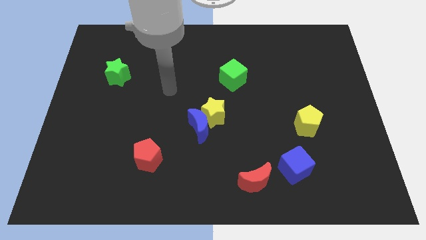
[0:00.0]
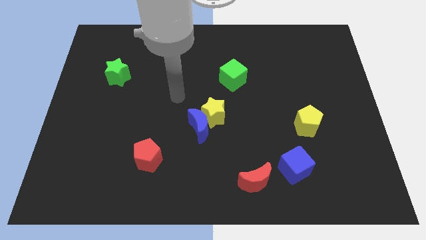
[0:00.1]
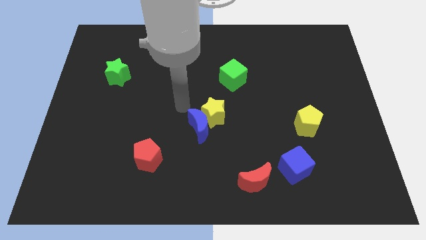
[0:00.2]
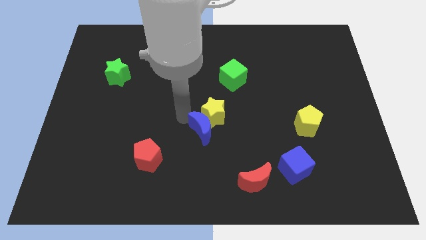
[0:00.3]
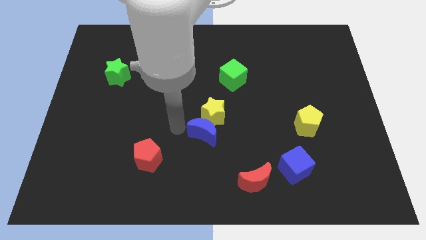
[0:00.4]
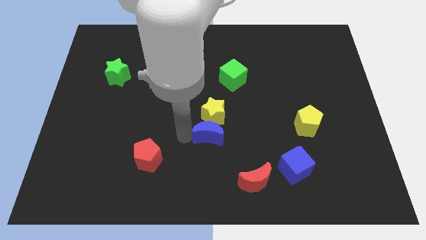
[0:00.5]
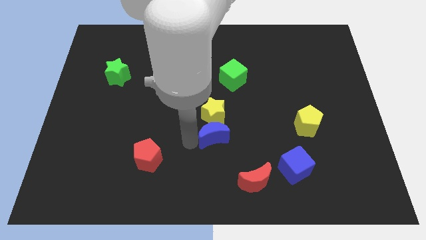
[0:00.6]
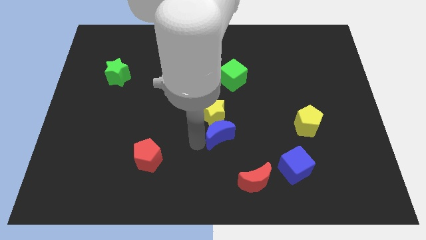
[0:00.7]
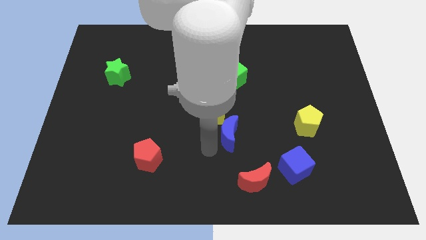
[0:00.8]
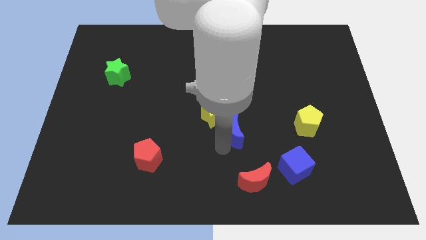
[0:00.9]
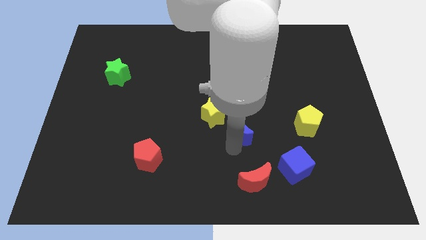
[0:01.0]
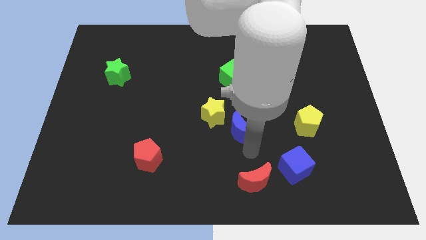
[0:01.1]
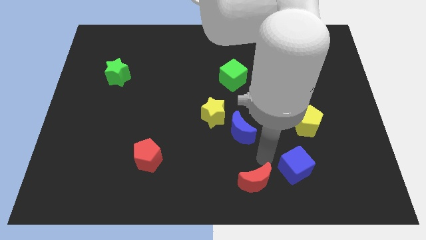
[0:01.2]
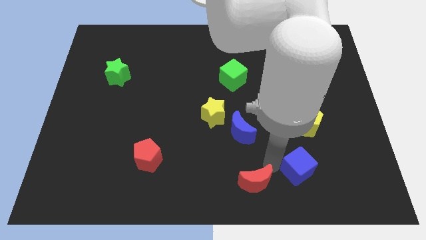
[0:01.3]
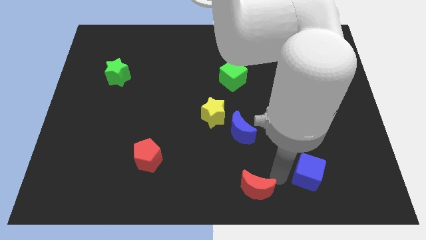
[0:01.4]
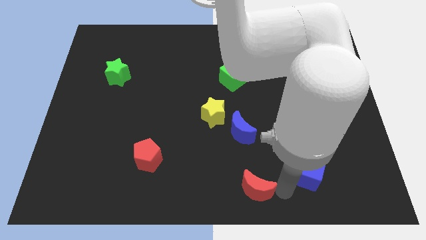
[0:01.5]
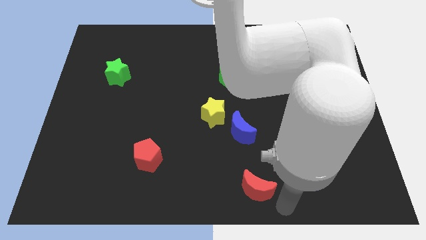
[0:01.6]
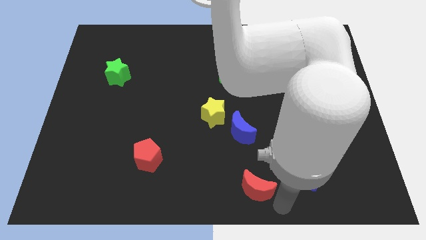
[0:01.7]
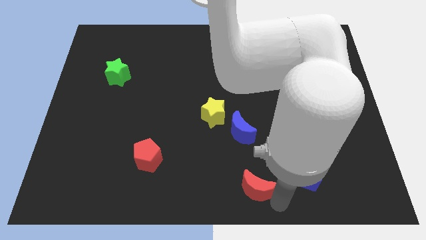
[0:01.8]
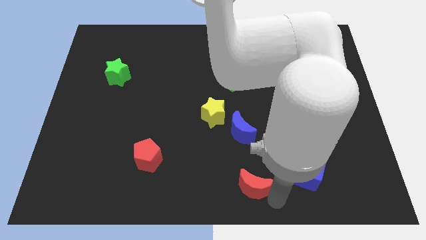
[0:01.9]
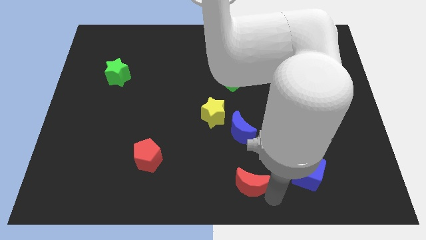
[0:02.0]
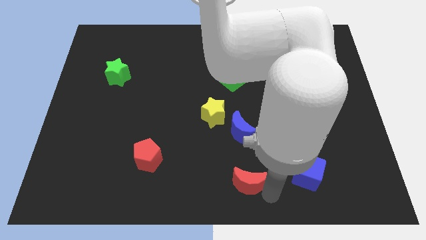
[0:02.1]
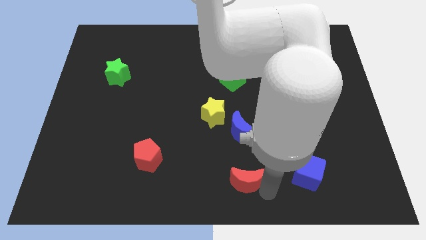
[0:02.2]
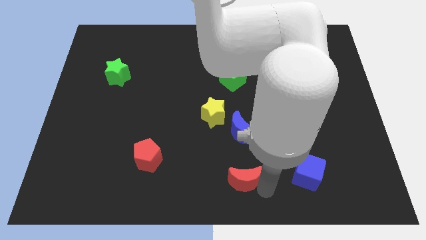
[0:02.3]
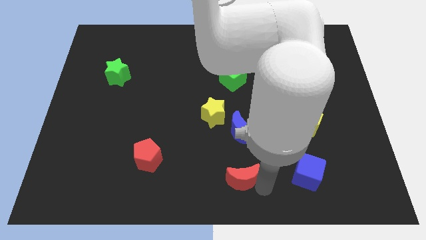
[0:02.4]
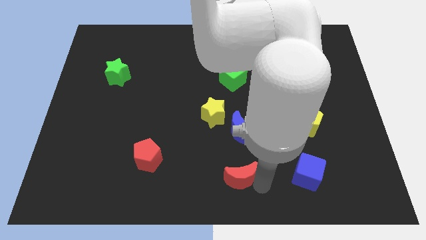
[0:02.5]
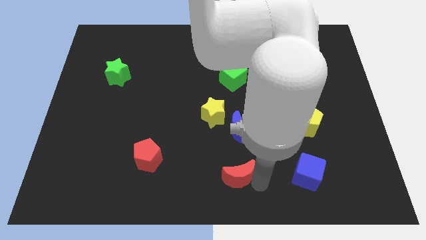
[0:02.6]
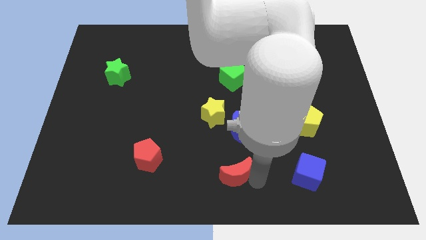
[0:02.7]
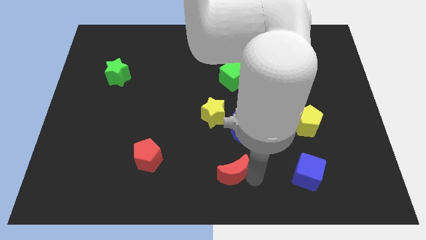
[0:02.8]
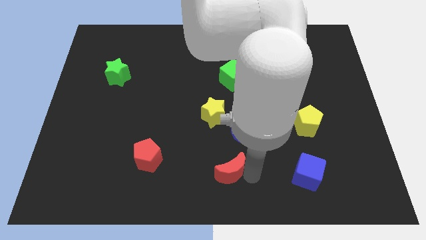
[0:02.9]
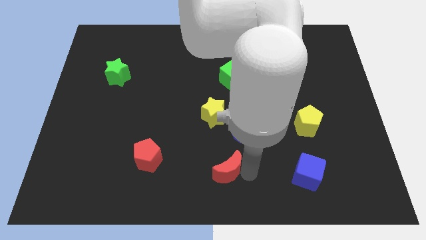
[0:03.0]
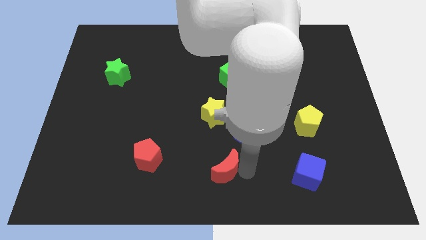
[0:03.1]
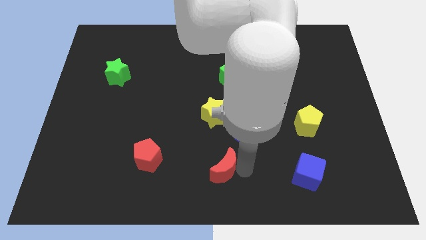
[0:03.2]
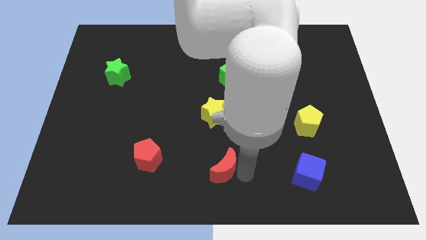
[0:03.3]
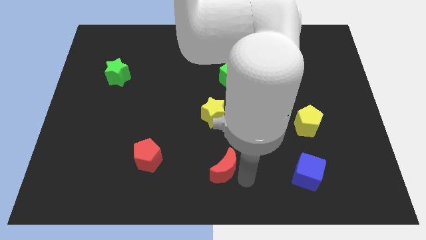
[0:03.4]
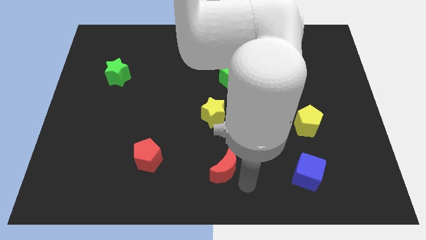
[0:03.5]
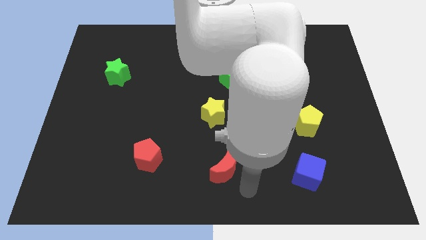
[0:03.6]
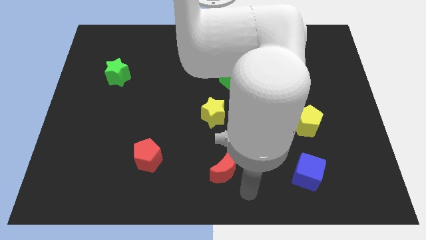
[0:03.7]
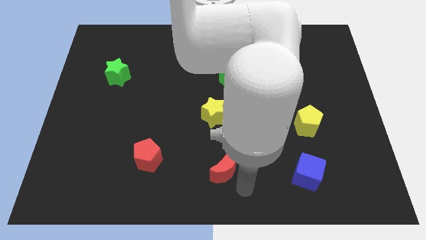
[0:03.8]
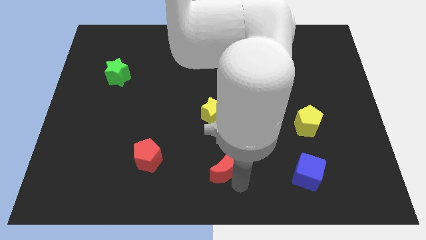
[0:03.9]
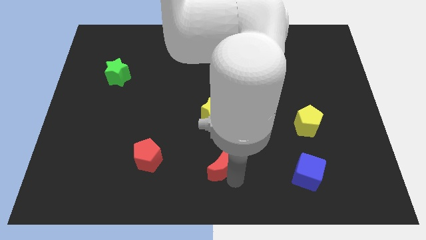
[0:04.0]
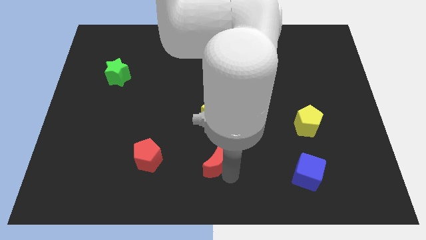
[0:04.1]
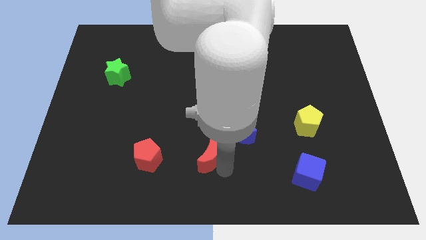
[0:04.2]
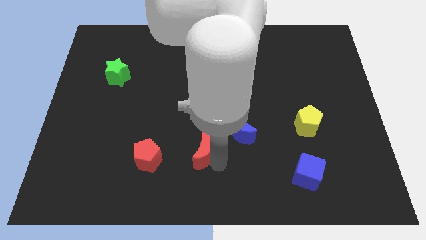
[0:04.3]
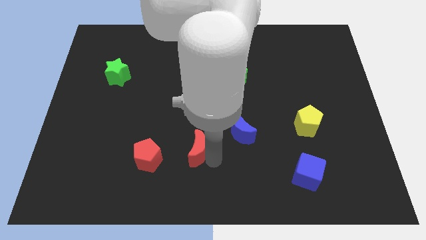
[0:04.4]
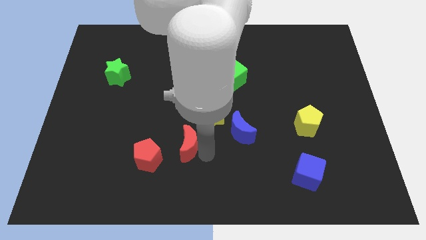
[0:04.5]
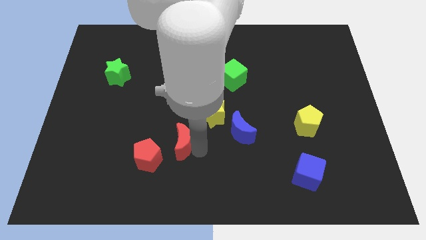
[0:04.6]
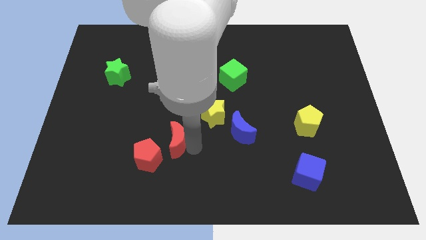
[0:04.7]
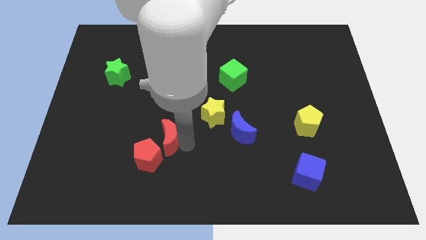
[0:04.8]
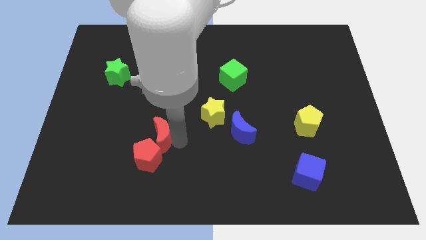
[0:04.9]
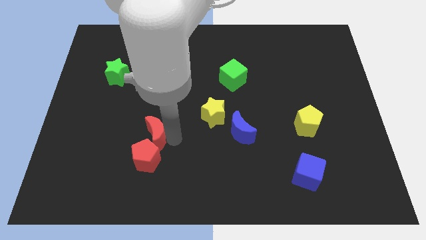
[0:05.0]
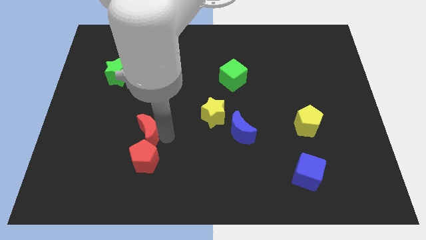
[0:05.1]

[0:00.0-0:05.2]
slide the red moon diagonally up and to the left of the red pentagon

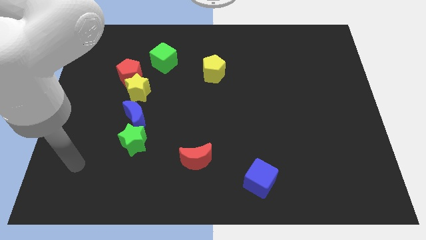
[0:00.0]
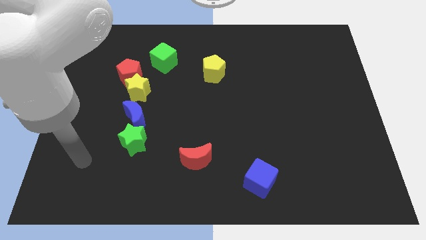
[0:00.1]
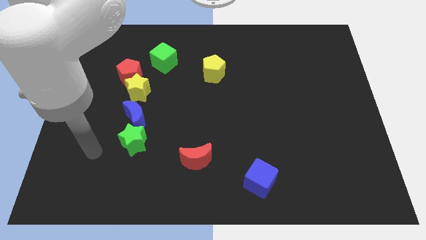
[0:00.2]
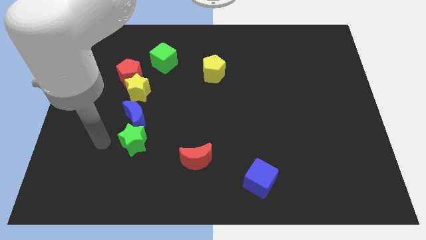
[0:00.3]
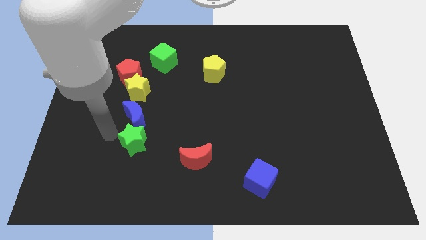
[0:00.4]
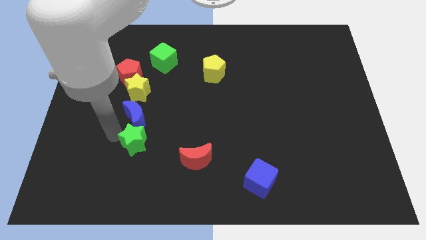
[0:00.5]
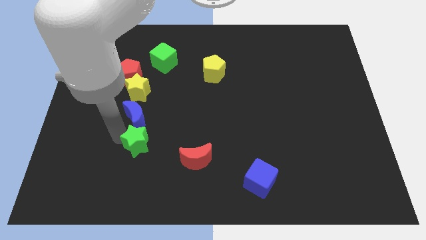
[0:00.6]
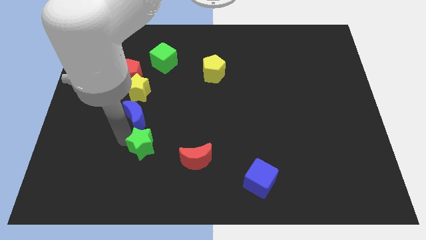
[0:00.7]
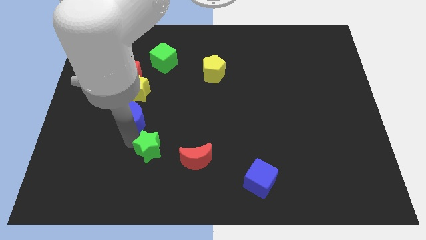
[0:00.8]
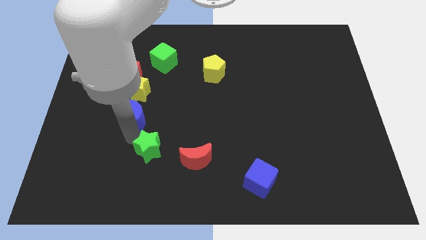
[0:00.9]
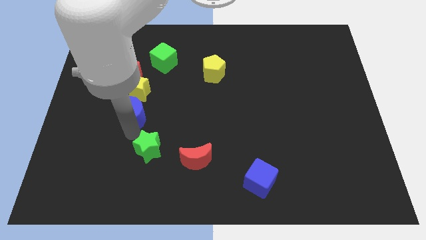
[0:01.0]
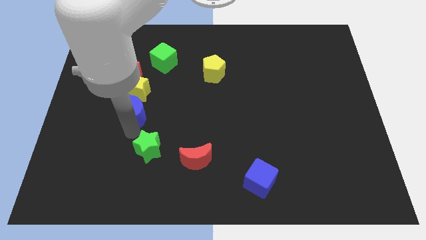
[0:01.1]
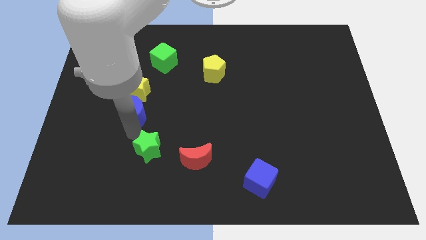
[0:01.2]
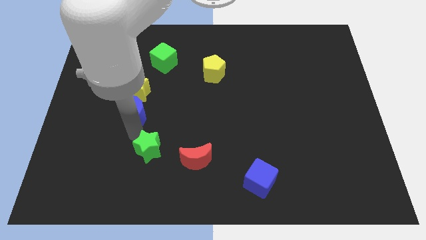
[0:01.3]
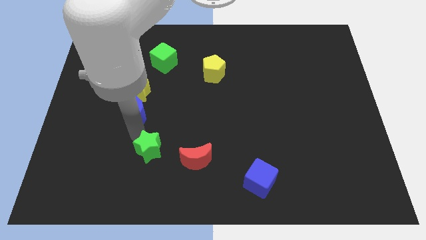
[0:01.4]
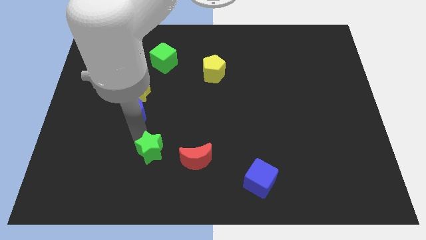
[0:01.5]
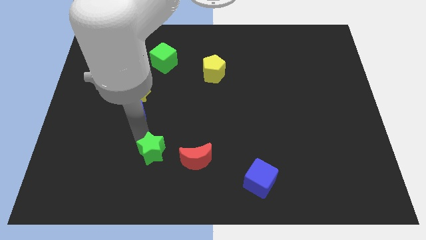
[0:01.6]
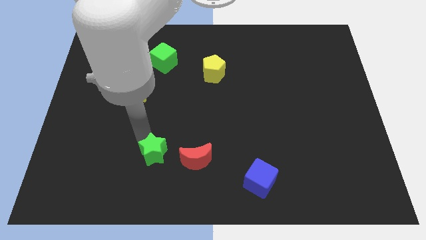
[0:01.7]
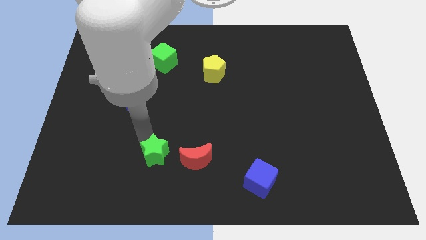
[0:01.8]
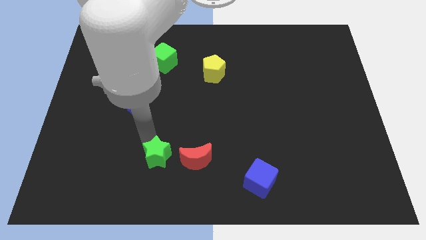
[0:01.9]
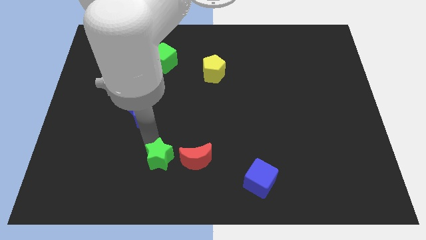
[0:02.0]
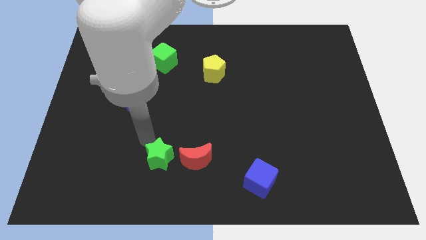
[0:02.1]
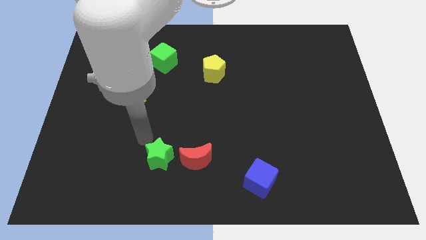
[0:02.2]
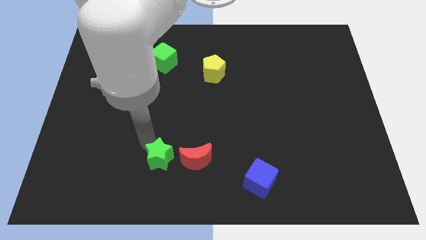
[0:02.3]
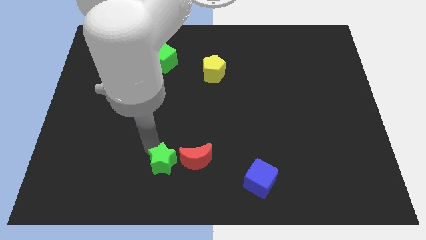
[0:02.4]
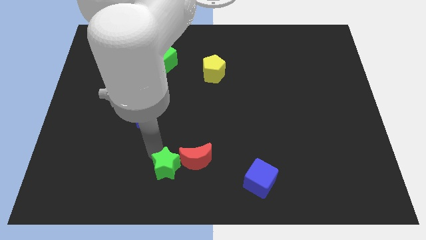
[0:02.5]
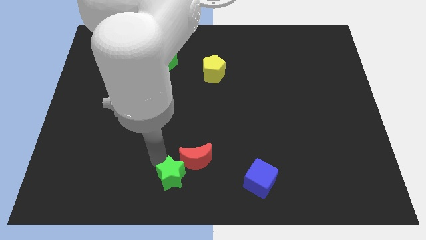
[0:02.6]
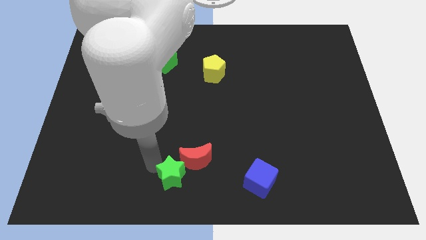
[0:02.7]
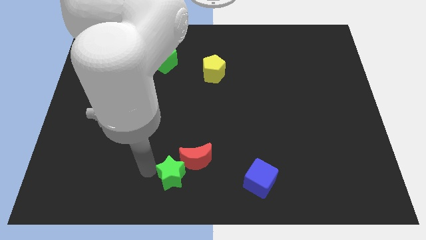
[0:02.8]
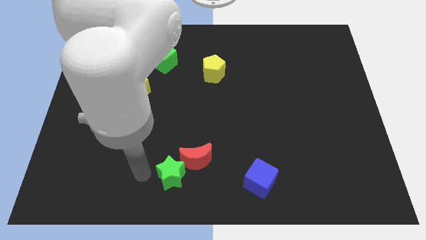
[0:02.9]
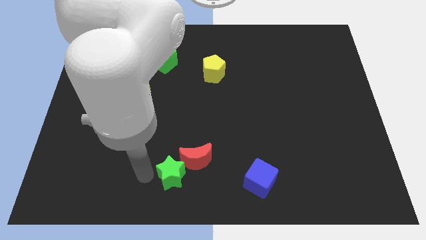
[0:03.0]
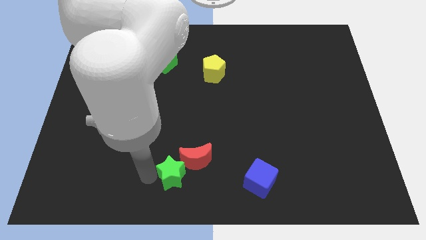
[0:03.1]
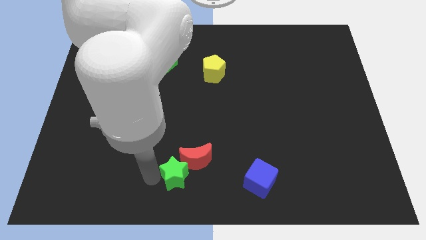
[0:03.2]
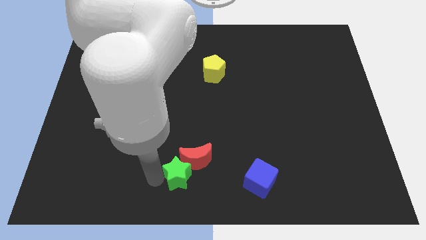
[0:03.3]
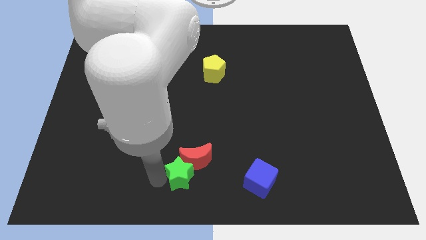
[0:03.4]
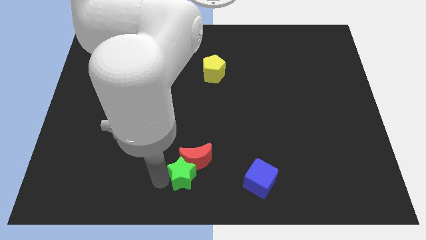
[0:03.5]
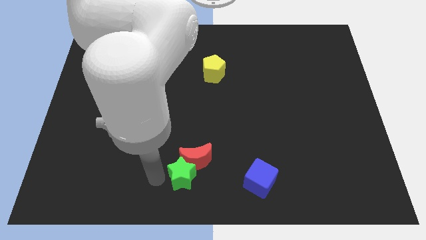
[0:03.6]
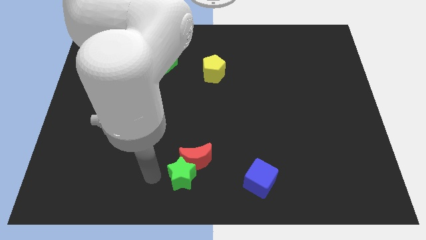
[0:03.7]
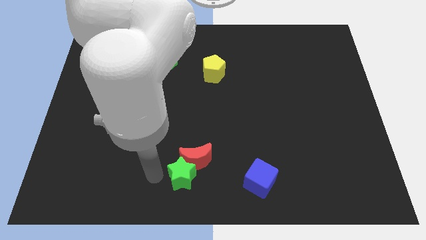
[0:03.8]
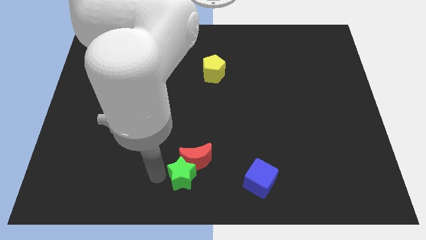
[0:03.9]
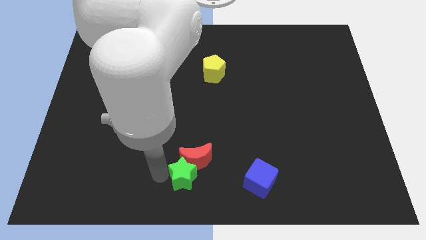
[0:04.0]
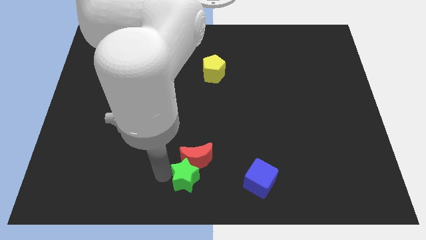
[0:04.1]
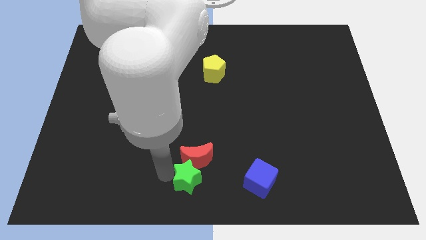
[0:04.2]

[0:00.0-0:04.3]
move the green star diagonally down and to the right of the red moon
